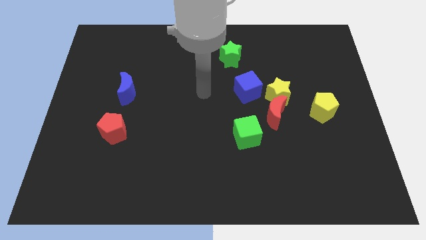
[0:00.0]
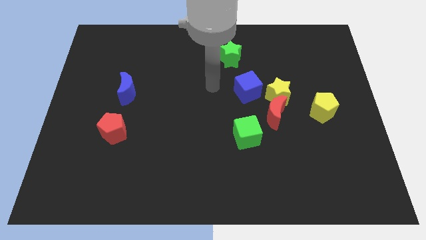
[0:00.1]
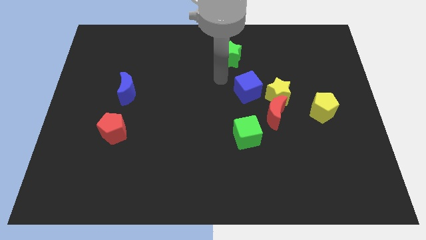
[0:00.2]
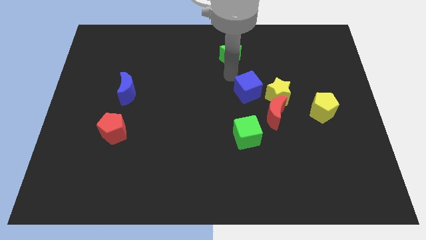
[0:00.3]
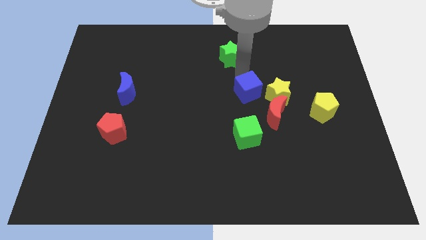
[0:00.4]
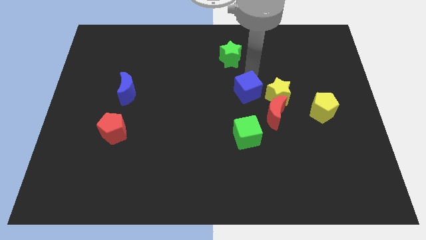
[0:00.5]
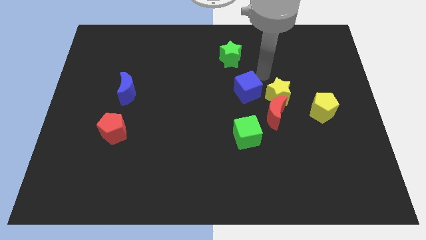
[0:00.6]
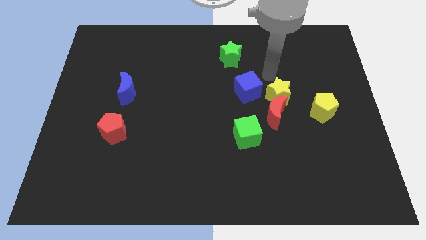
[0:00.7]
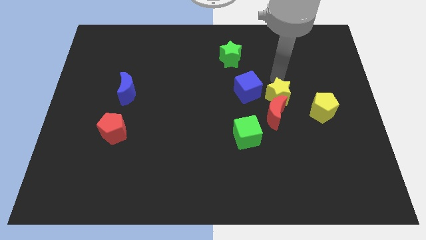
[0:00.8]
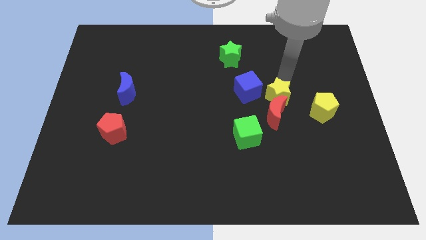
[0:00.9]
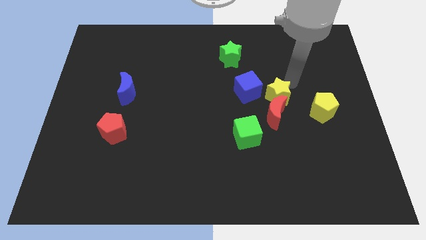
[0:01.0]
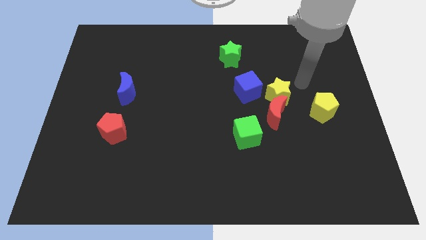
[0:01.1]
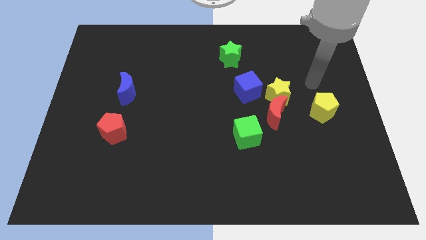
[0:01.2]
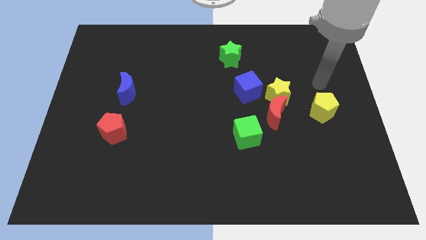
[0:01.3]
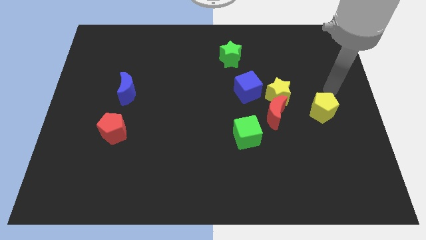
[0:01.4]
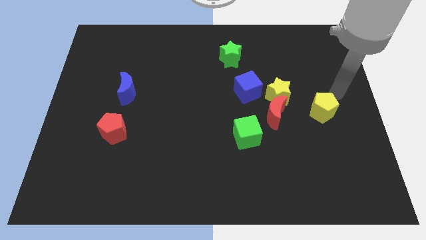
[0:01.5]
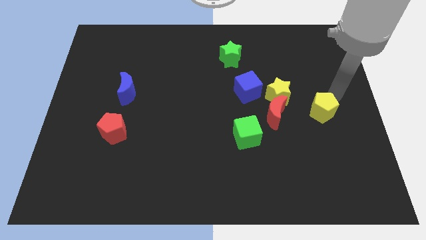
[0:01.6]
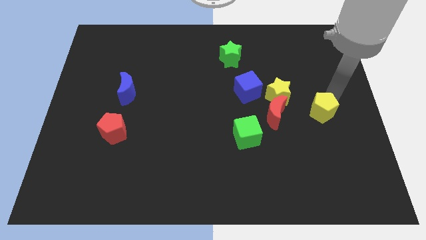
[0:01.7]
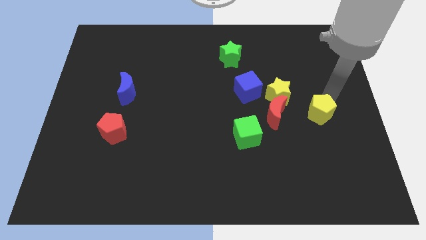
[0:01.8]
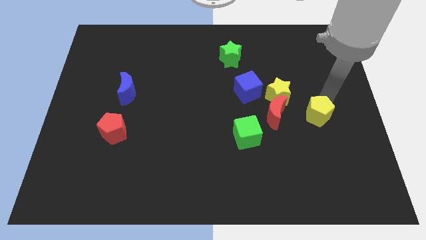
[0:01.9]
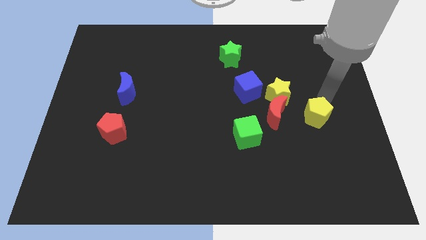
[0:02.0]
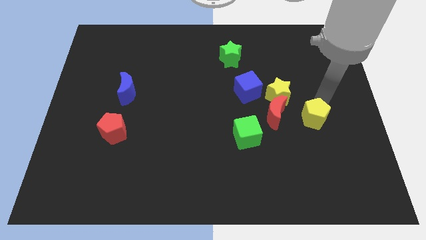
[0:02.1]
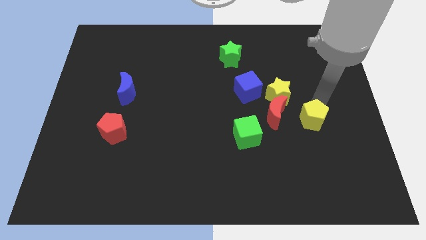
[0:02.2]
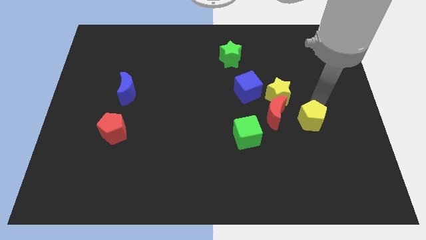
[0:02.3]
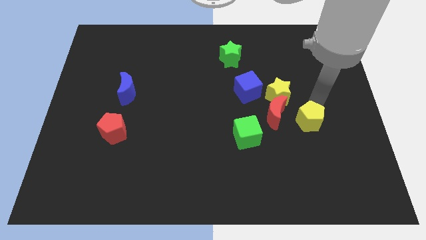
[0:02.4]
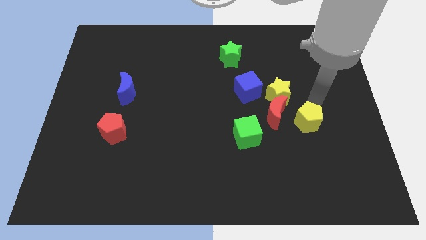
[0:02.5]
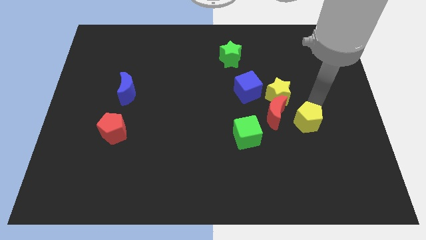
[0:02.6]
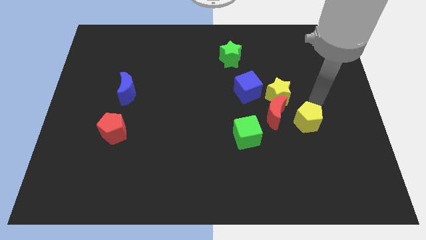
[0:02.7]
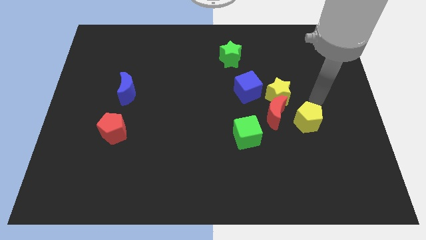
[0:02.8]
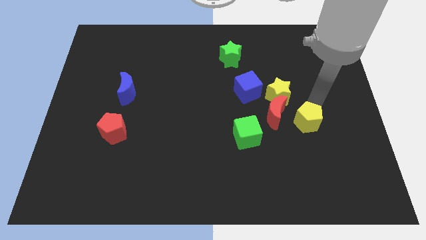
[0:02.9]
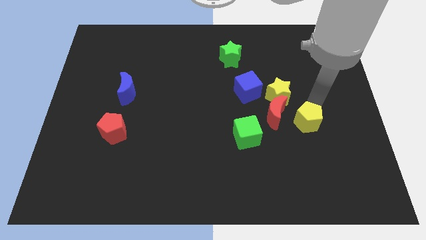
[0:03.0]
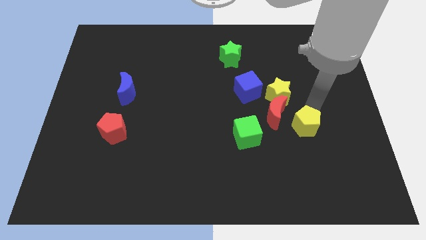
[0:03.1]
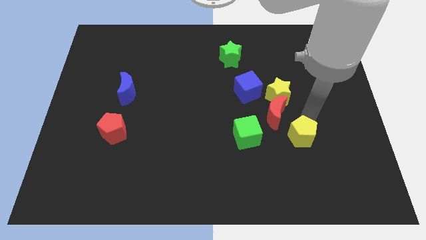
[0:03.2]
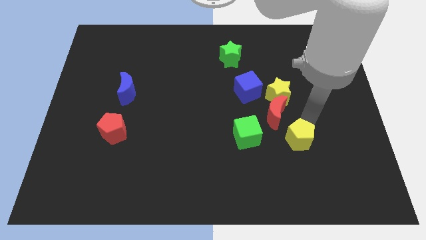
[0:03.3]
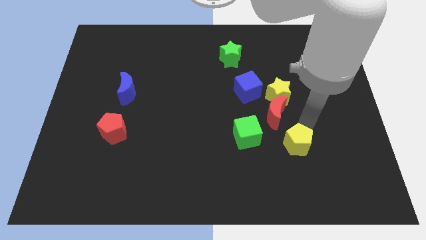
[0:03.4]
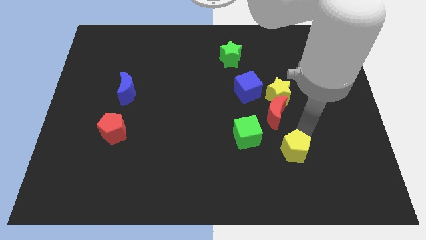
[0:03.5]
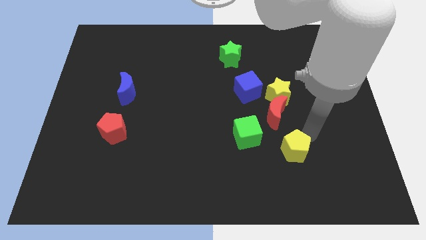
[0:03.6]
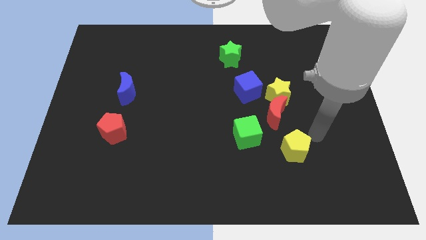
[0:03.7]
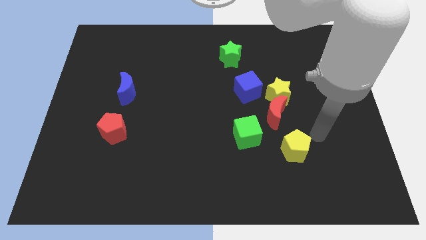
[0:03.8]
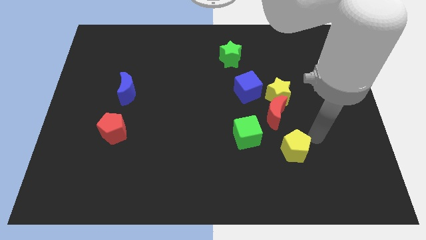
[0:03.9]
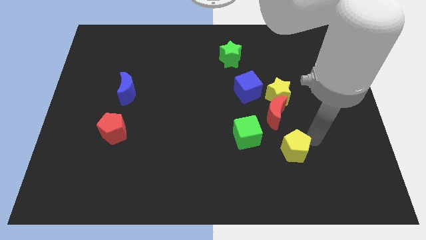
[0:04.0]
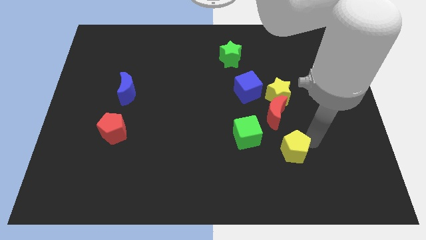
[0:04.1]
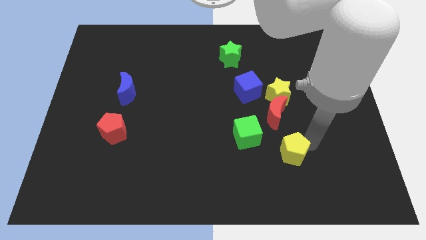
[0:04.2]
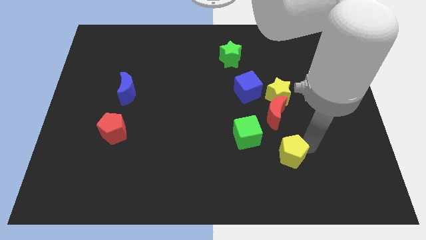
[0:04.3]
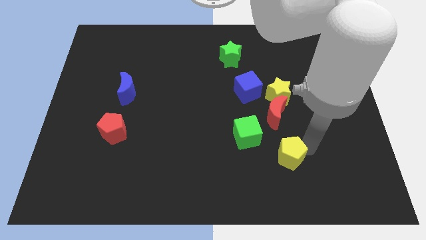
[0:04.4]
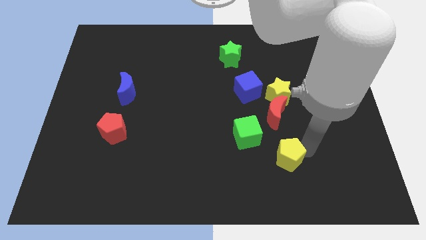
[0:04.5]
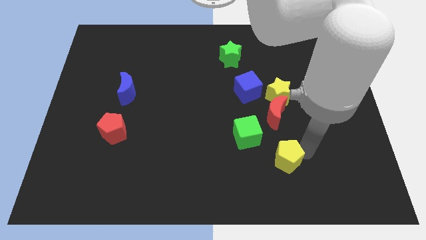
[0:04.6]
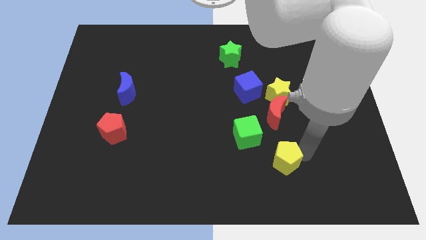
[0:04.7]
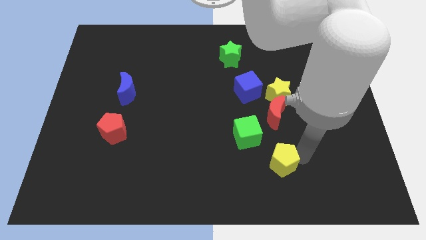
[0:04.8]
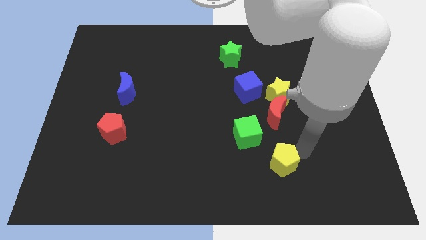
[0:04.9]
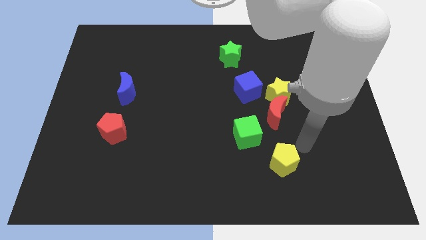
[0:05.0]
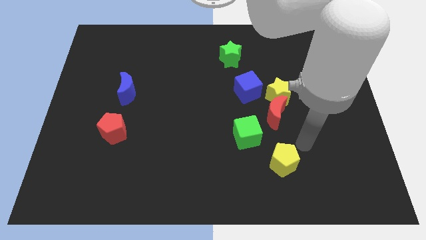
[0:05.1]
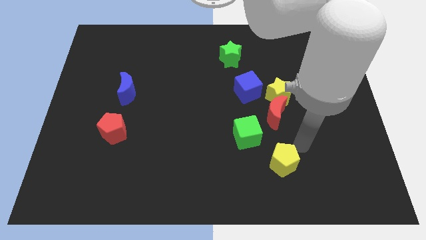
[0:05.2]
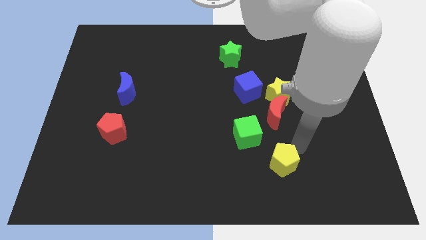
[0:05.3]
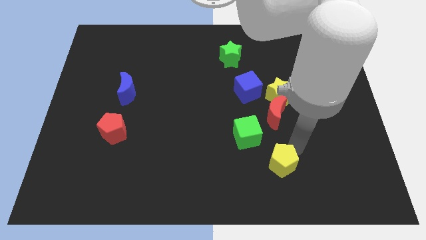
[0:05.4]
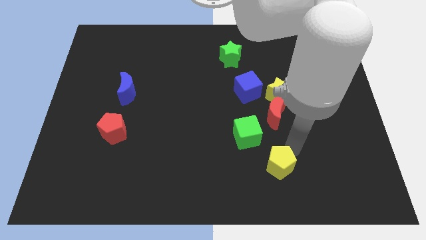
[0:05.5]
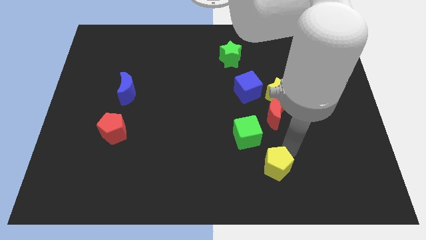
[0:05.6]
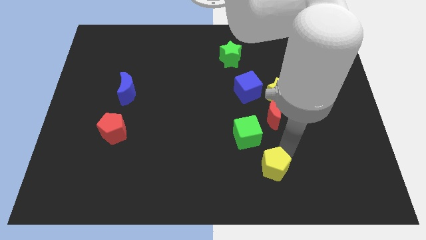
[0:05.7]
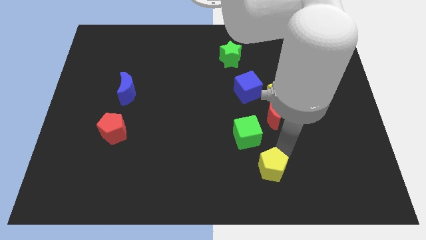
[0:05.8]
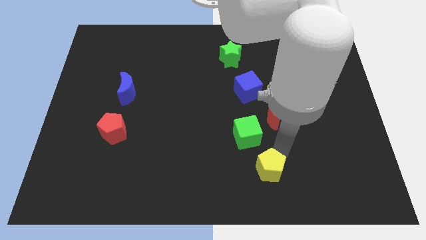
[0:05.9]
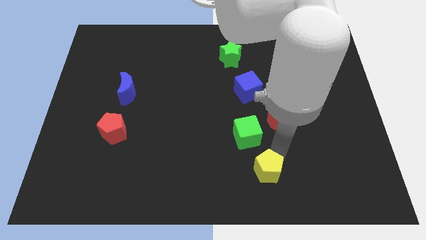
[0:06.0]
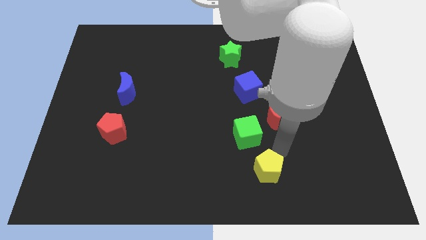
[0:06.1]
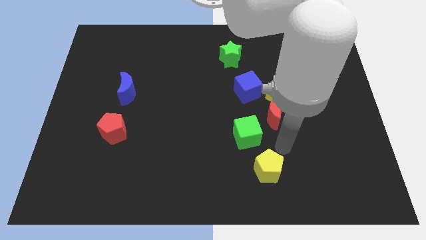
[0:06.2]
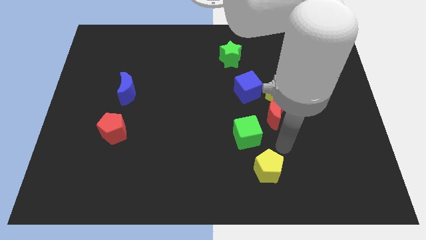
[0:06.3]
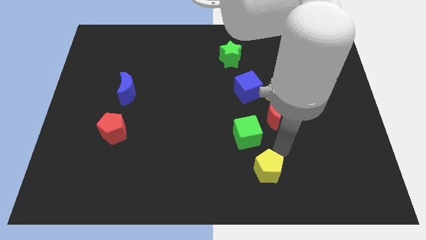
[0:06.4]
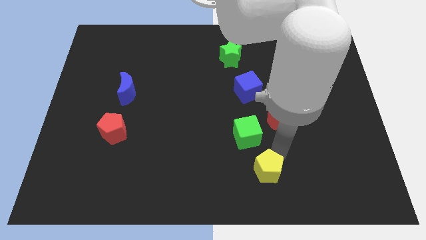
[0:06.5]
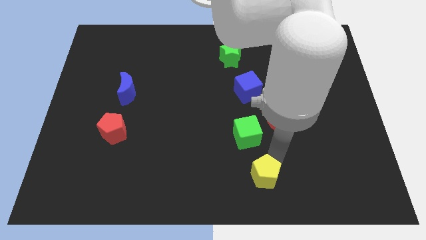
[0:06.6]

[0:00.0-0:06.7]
put the yellow pentagon to the bottom side
